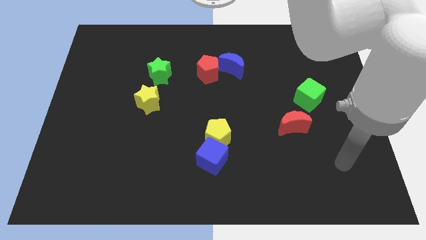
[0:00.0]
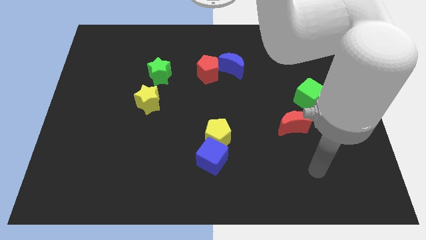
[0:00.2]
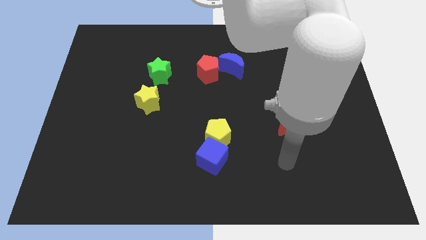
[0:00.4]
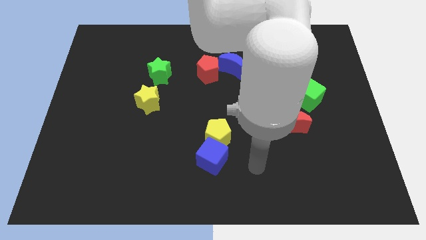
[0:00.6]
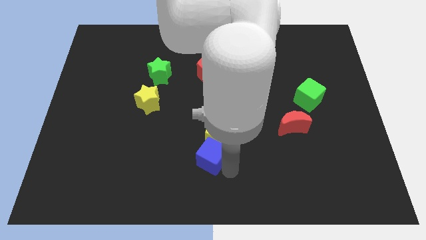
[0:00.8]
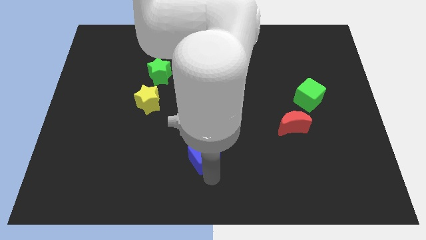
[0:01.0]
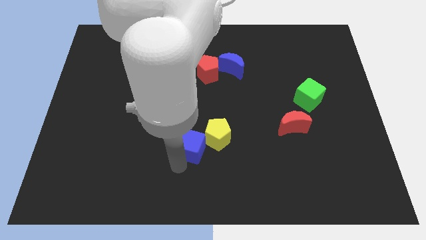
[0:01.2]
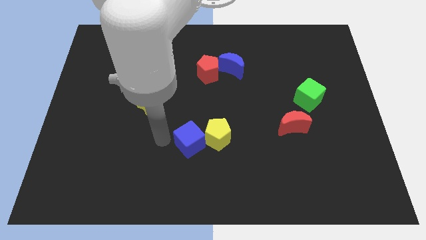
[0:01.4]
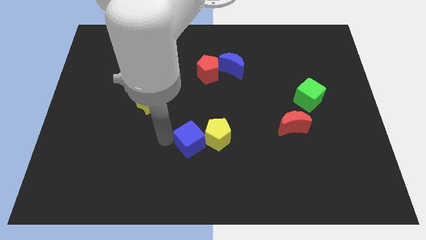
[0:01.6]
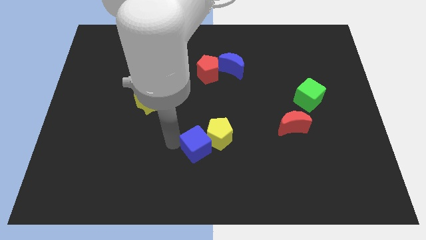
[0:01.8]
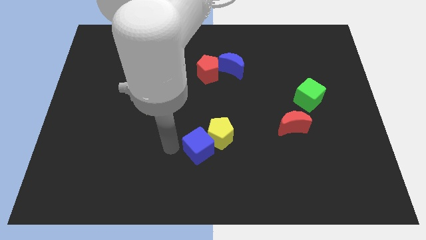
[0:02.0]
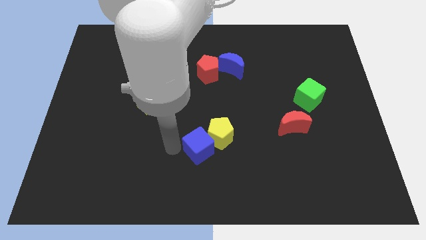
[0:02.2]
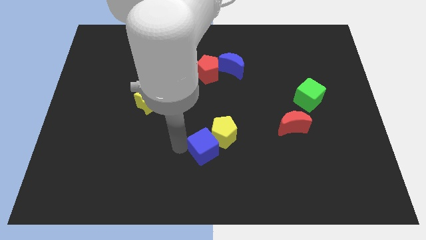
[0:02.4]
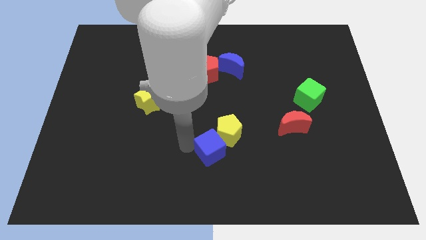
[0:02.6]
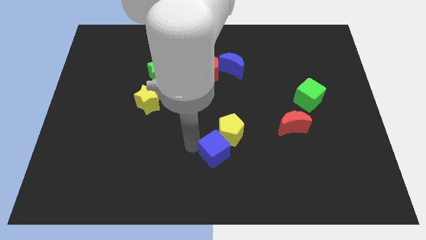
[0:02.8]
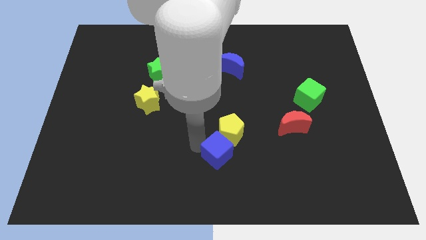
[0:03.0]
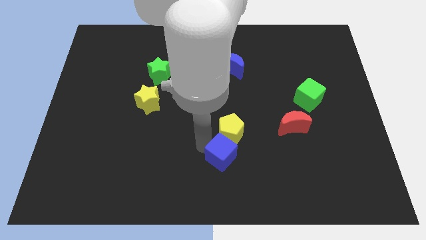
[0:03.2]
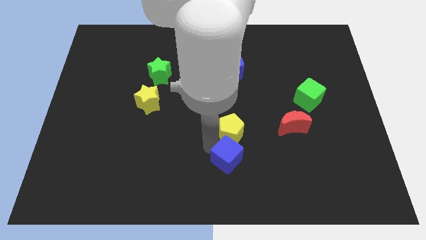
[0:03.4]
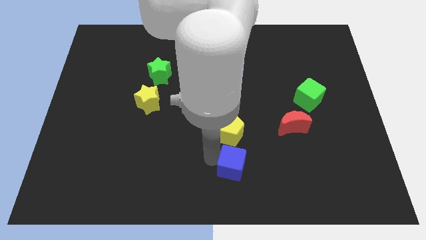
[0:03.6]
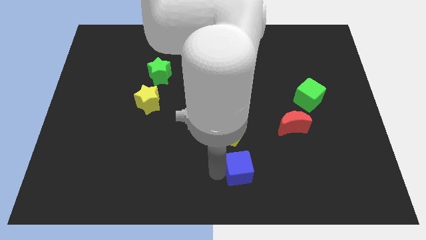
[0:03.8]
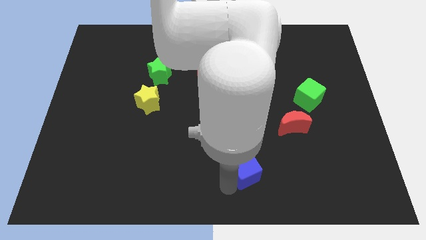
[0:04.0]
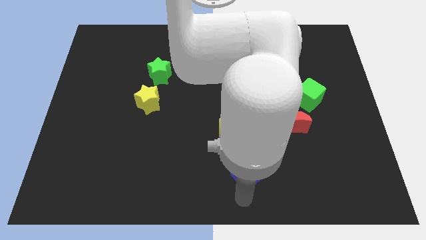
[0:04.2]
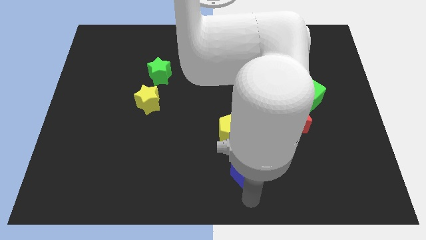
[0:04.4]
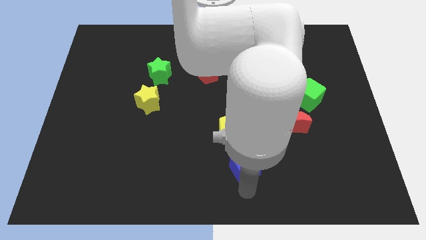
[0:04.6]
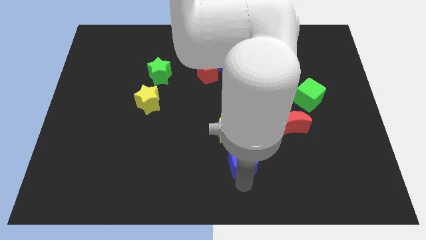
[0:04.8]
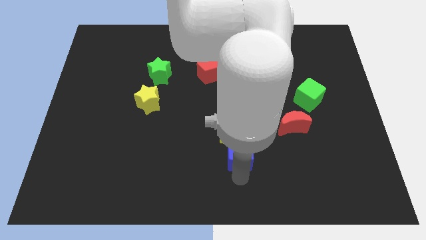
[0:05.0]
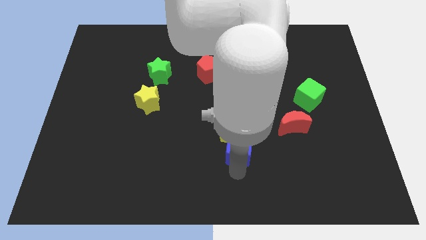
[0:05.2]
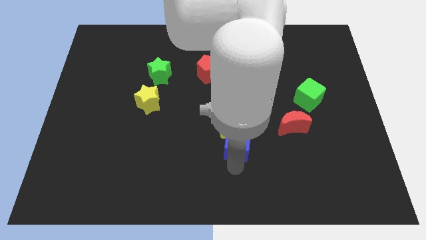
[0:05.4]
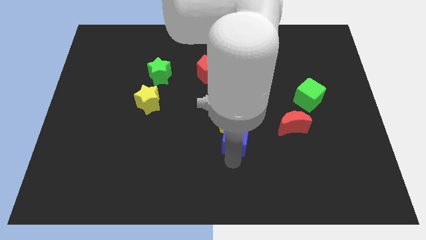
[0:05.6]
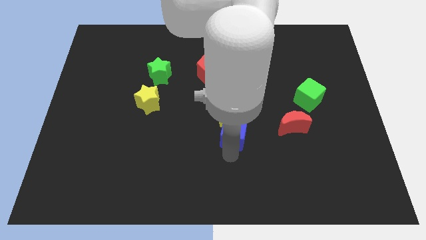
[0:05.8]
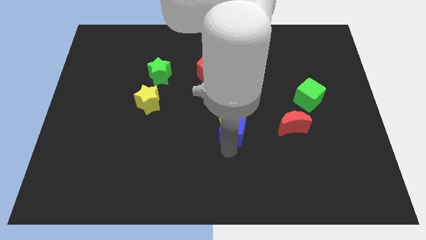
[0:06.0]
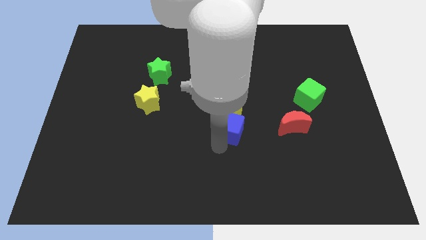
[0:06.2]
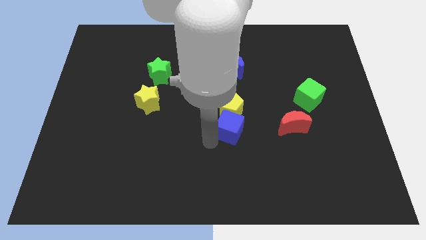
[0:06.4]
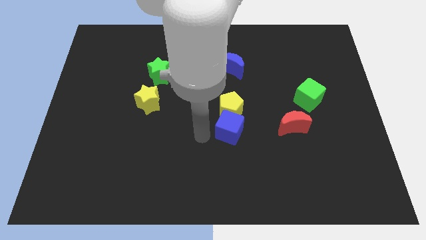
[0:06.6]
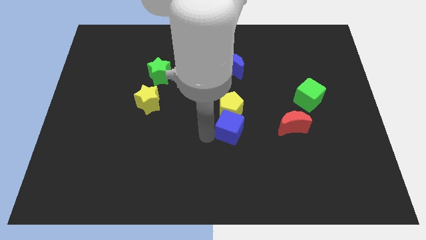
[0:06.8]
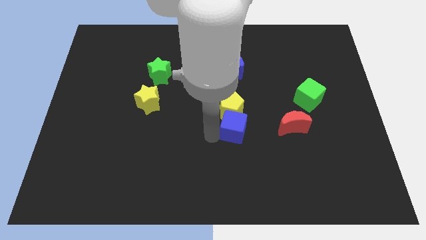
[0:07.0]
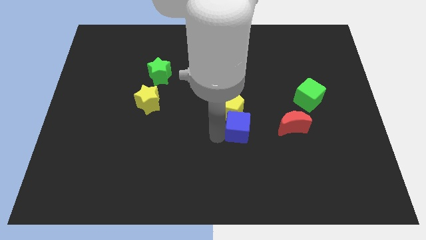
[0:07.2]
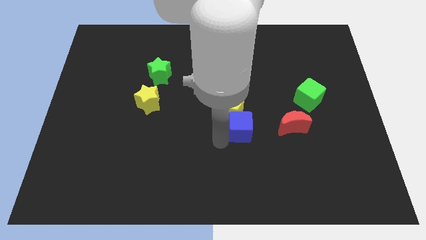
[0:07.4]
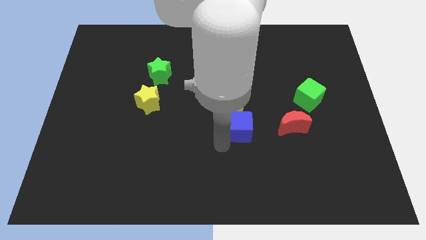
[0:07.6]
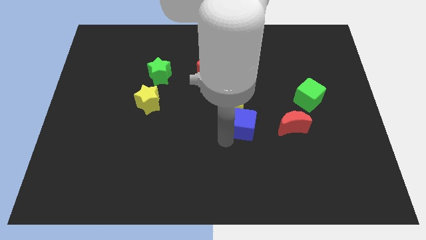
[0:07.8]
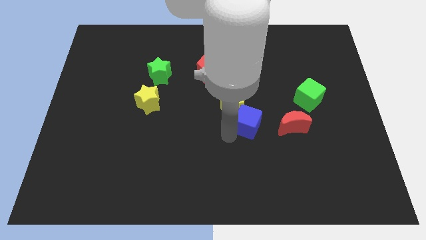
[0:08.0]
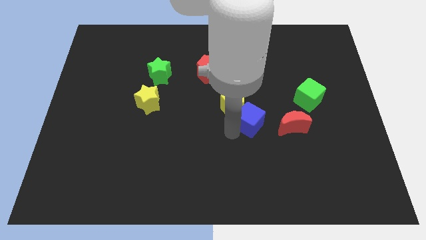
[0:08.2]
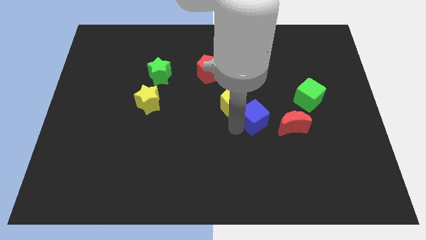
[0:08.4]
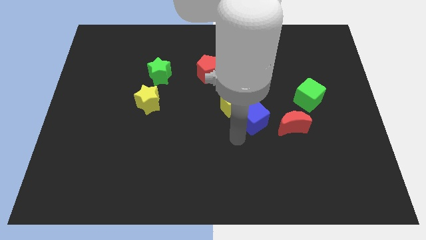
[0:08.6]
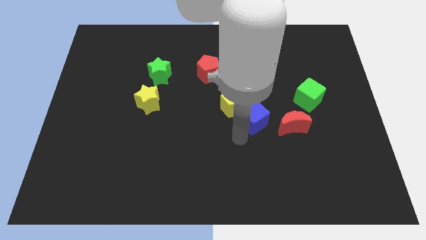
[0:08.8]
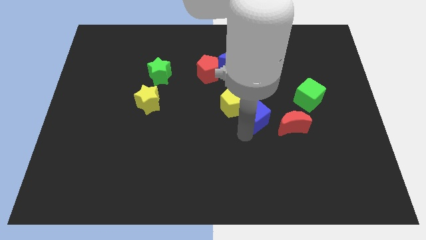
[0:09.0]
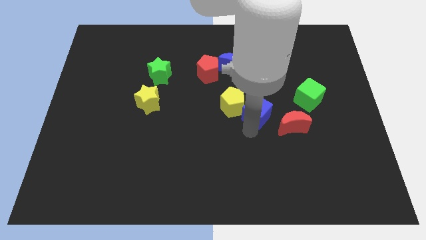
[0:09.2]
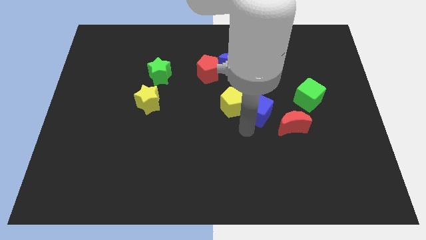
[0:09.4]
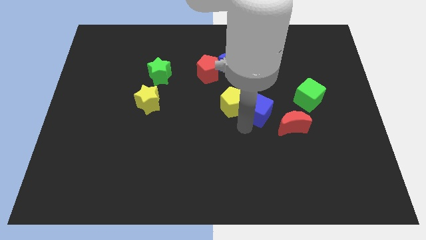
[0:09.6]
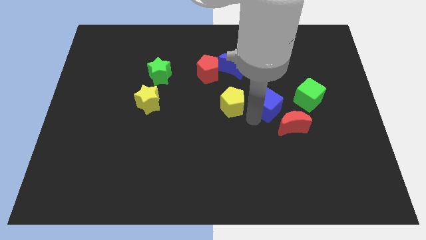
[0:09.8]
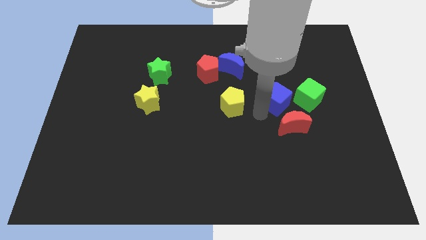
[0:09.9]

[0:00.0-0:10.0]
slide the blue cube diagonally up and right

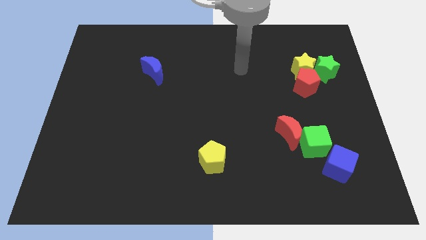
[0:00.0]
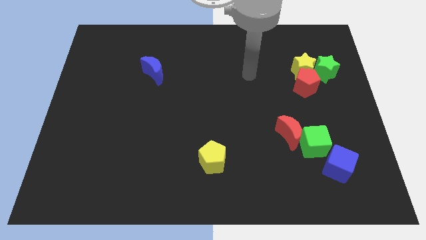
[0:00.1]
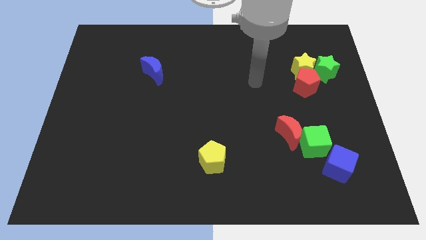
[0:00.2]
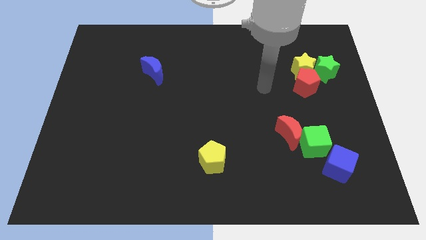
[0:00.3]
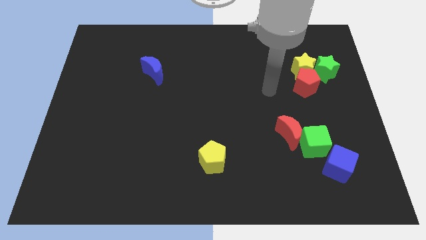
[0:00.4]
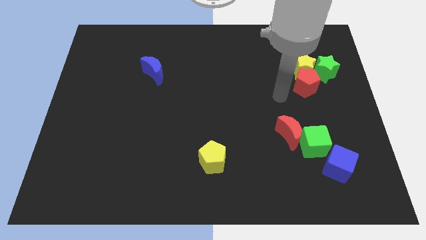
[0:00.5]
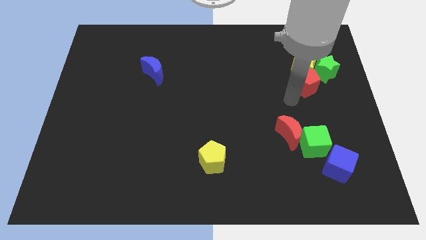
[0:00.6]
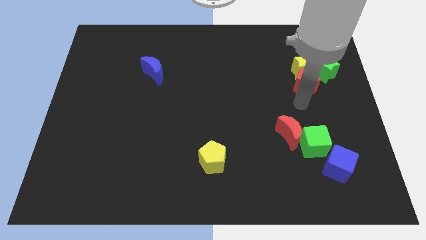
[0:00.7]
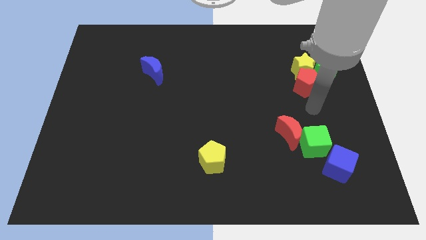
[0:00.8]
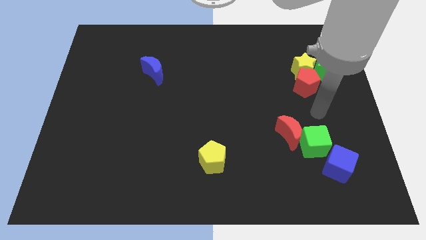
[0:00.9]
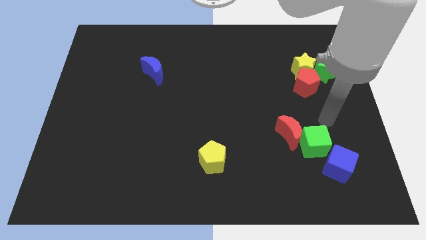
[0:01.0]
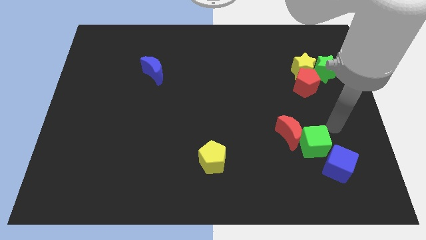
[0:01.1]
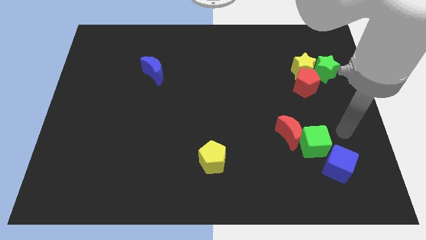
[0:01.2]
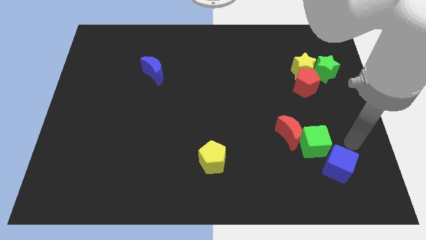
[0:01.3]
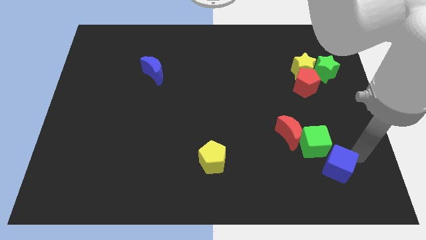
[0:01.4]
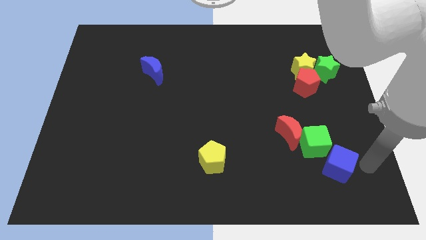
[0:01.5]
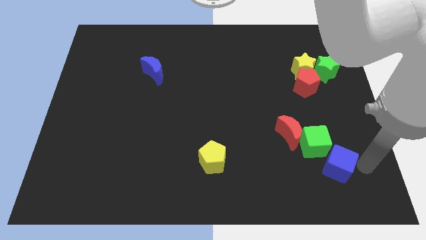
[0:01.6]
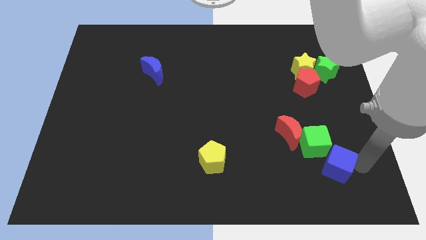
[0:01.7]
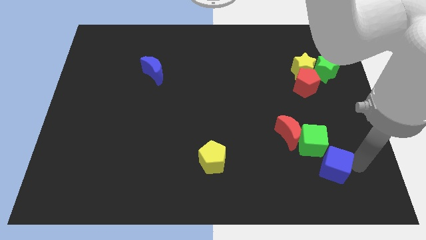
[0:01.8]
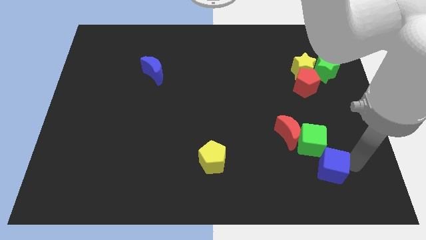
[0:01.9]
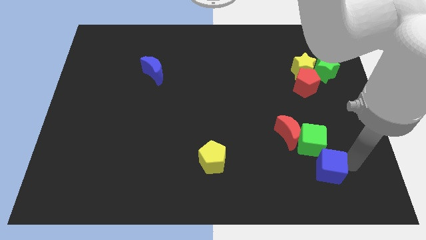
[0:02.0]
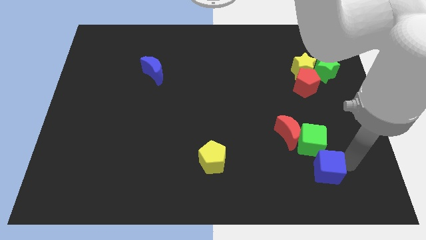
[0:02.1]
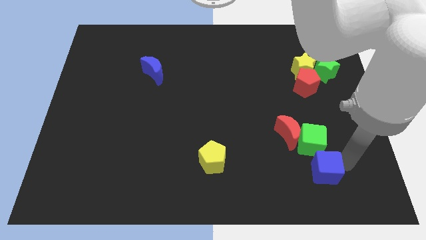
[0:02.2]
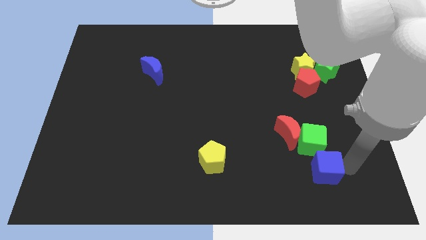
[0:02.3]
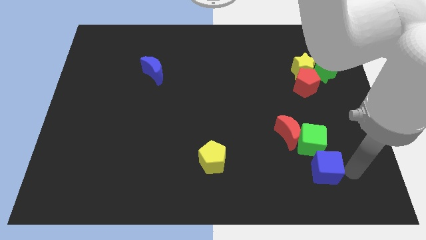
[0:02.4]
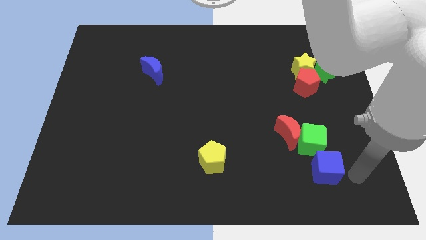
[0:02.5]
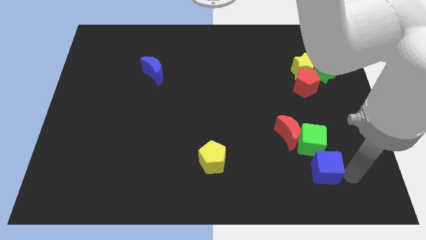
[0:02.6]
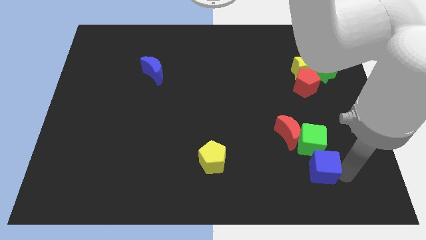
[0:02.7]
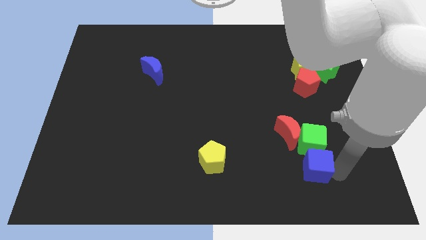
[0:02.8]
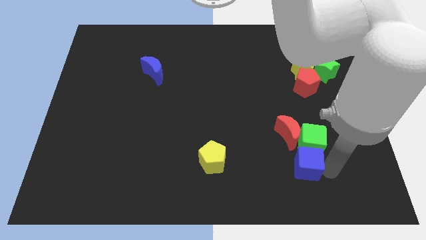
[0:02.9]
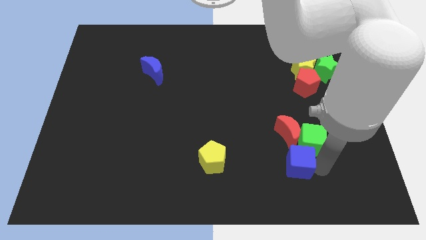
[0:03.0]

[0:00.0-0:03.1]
slightly slide the blue cube to the left
